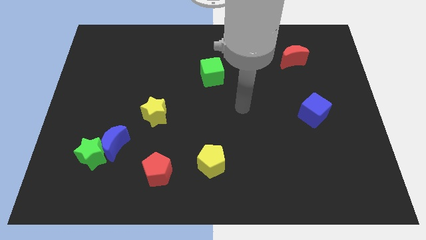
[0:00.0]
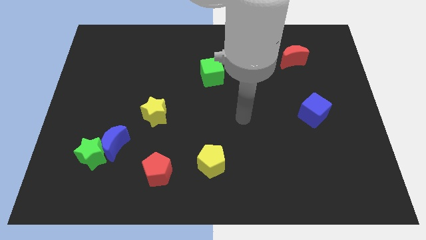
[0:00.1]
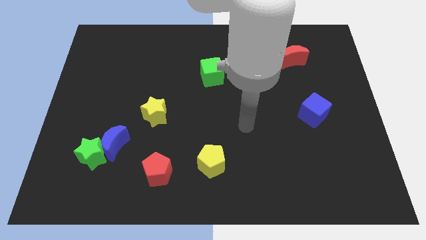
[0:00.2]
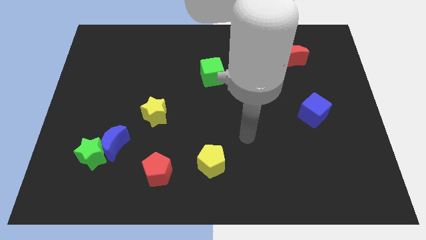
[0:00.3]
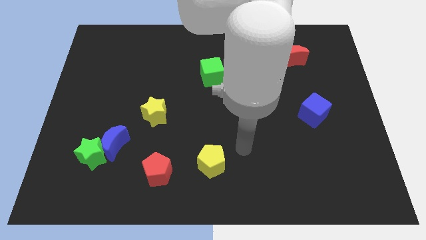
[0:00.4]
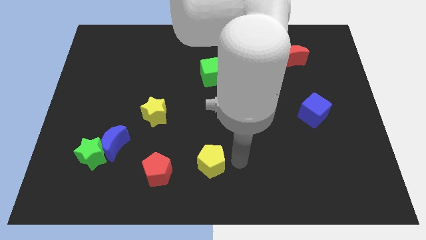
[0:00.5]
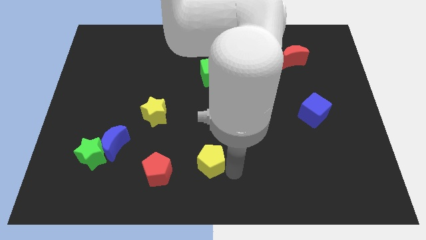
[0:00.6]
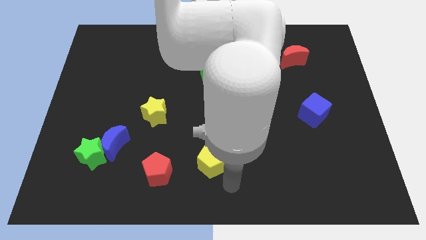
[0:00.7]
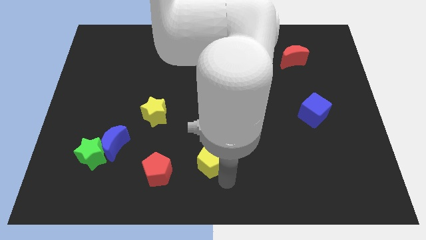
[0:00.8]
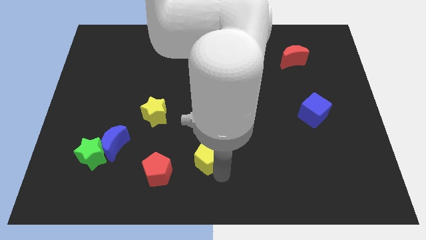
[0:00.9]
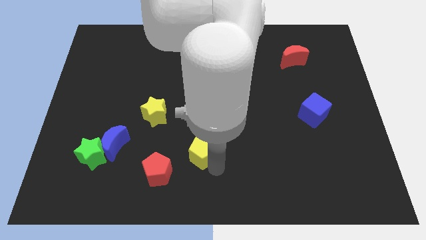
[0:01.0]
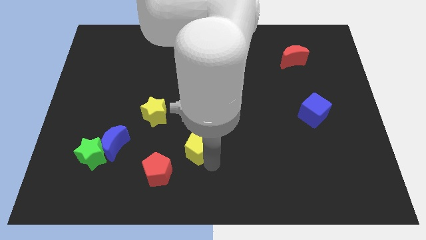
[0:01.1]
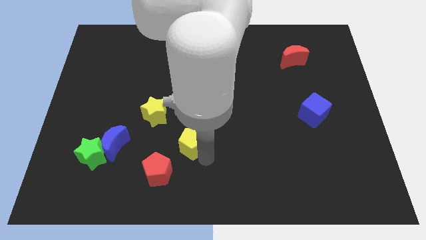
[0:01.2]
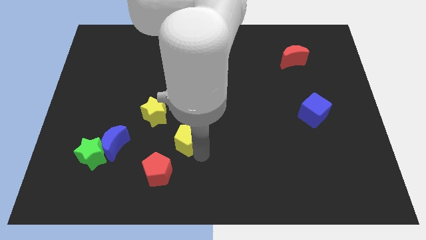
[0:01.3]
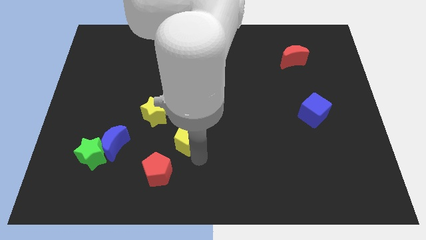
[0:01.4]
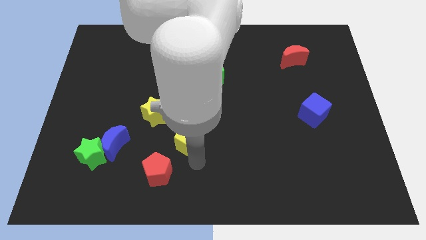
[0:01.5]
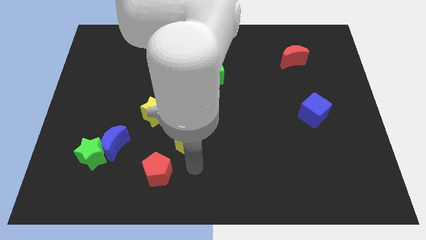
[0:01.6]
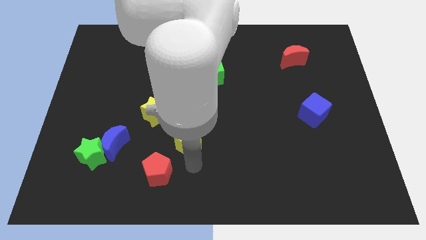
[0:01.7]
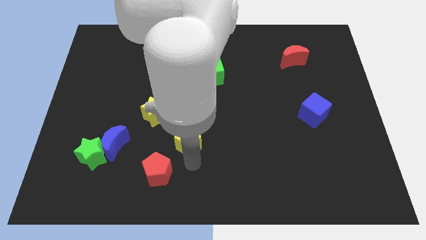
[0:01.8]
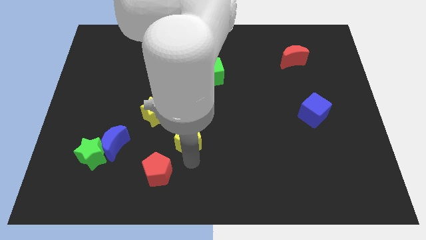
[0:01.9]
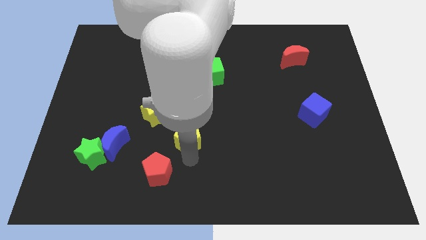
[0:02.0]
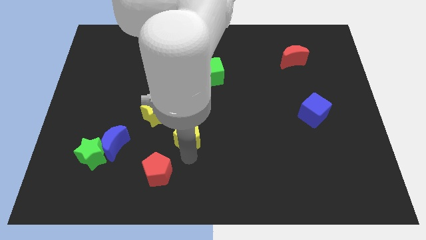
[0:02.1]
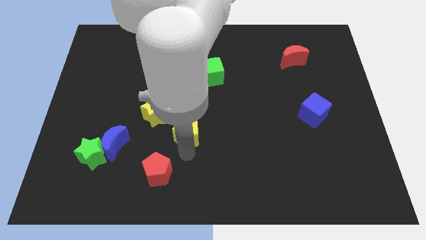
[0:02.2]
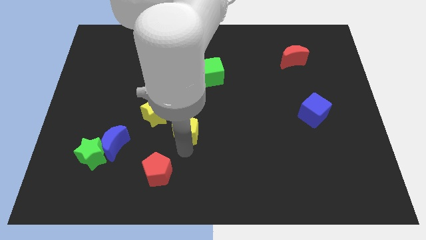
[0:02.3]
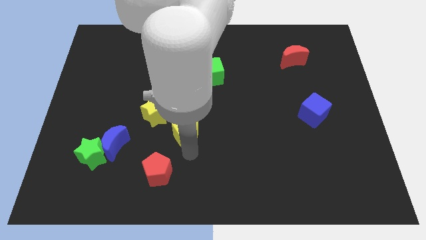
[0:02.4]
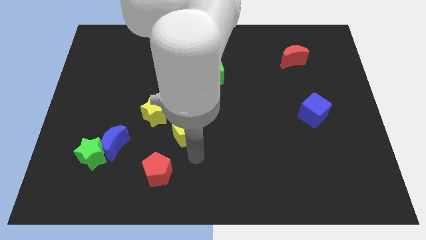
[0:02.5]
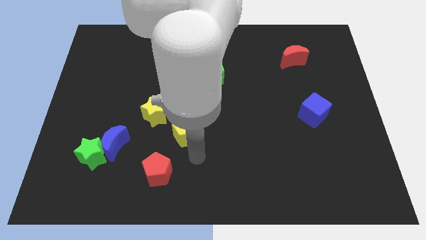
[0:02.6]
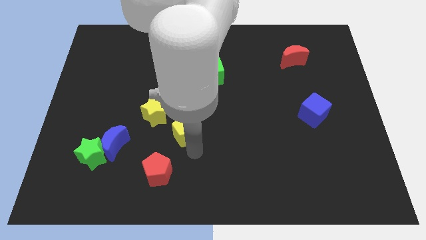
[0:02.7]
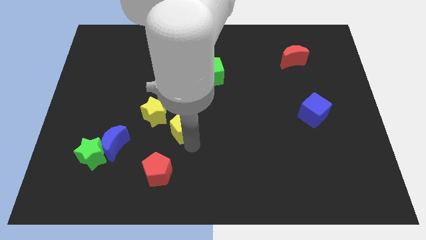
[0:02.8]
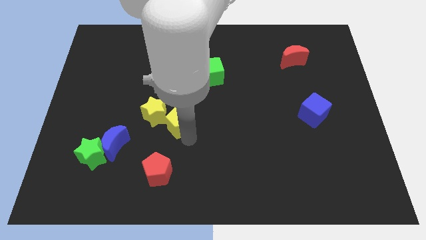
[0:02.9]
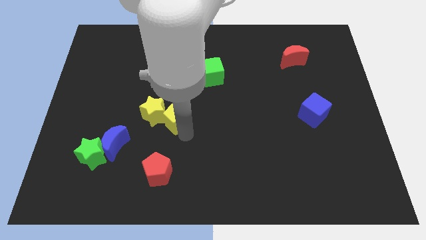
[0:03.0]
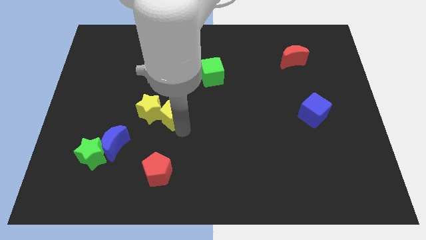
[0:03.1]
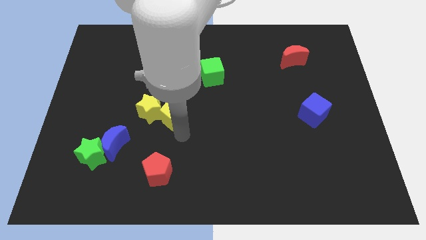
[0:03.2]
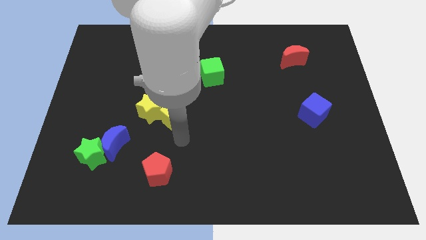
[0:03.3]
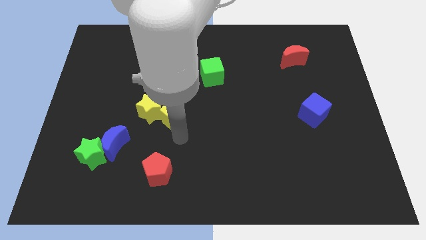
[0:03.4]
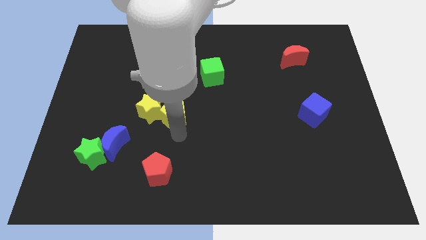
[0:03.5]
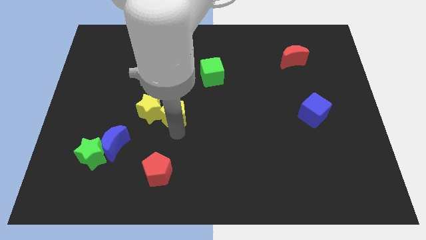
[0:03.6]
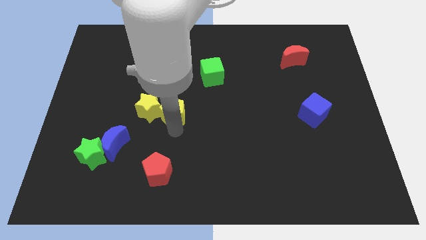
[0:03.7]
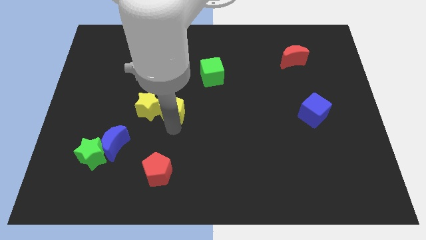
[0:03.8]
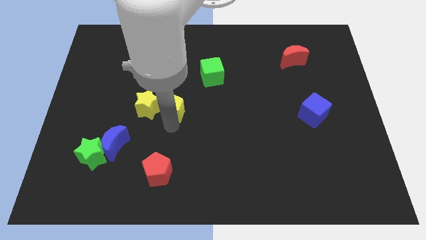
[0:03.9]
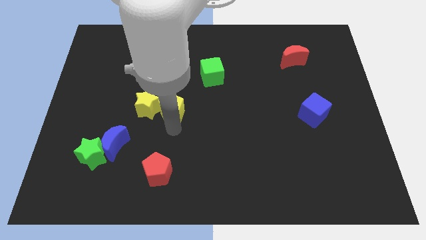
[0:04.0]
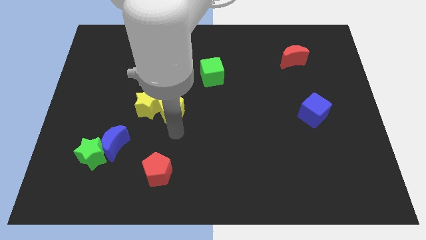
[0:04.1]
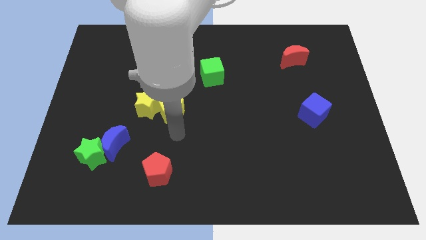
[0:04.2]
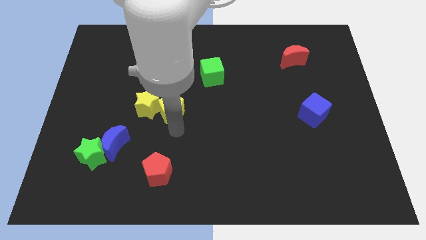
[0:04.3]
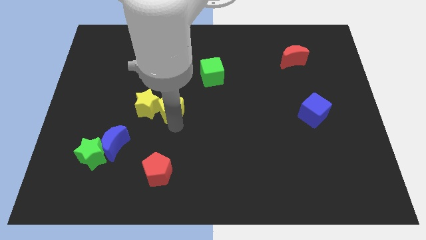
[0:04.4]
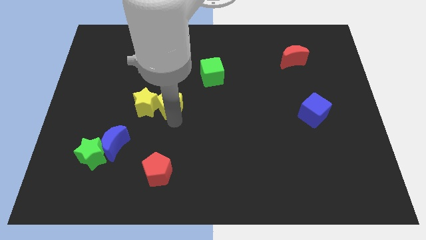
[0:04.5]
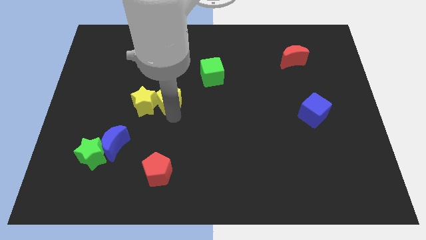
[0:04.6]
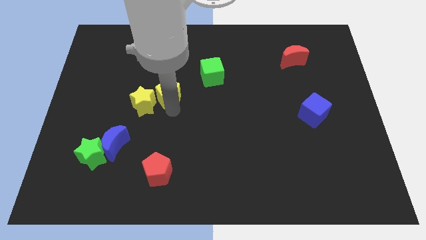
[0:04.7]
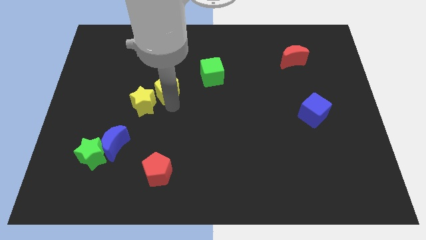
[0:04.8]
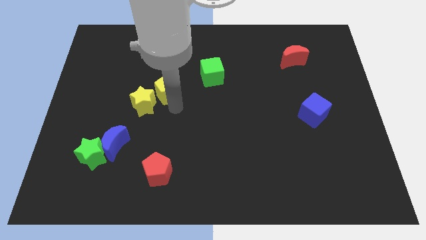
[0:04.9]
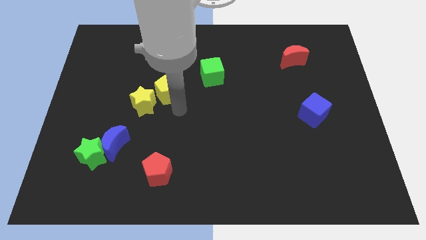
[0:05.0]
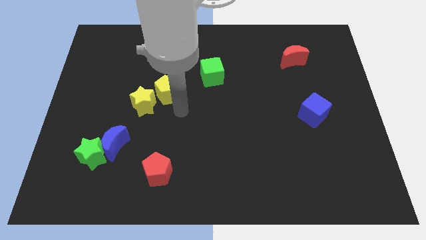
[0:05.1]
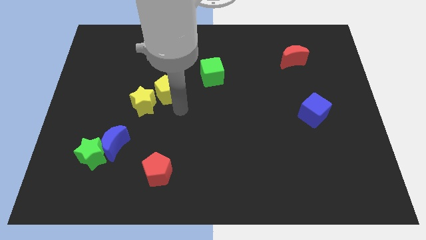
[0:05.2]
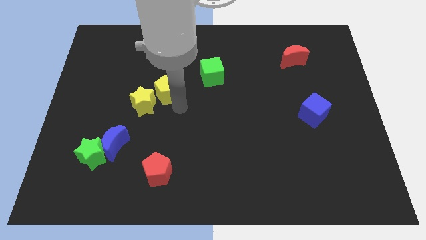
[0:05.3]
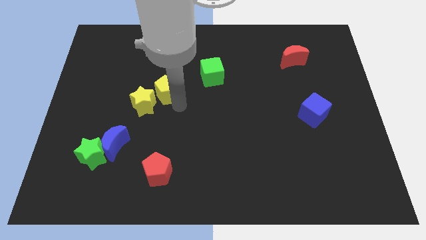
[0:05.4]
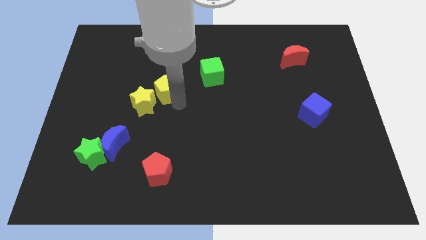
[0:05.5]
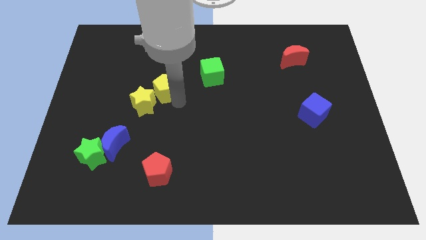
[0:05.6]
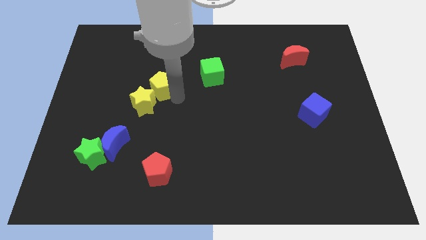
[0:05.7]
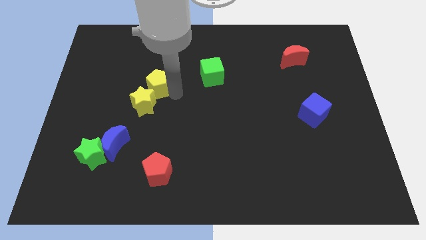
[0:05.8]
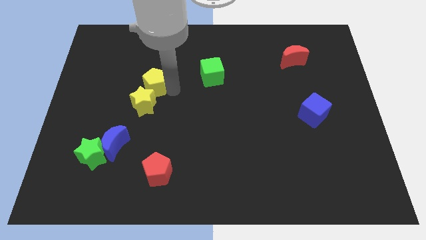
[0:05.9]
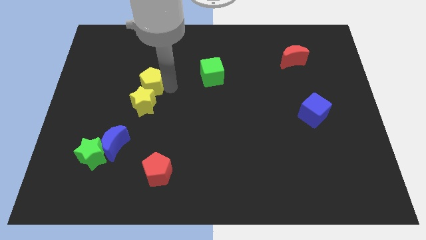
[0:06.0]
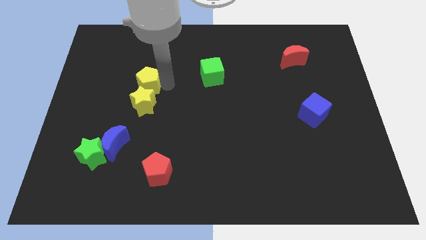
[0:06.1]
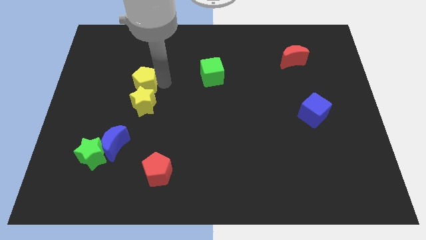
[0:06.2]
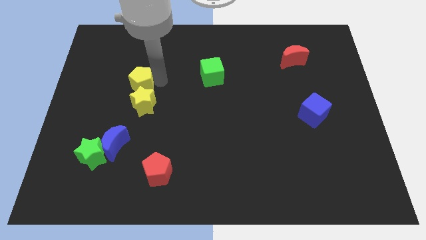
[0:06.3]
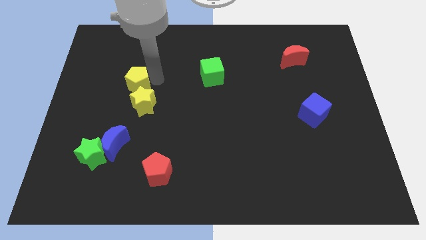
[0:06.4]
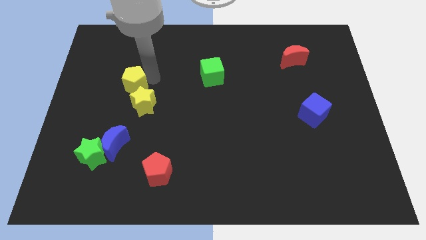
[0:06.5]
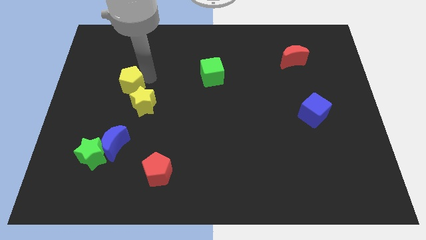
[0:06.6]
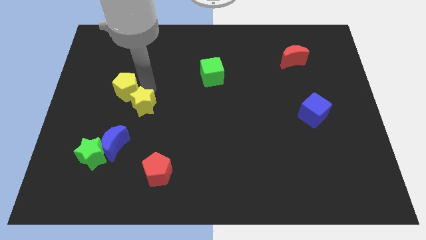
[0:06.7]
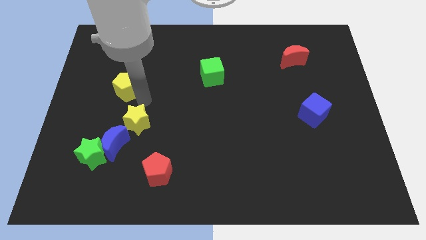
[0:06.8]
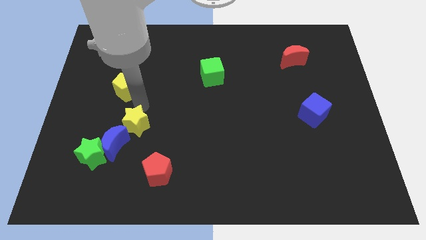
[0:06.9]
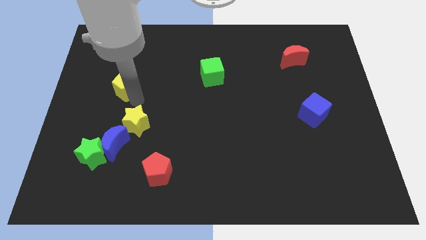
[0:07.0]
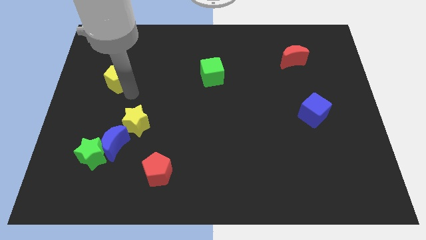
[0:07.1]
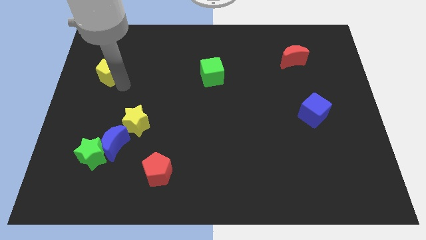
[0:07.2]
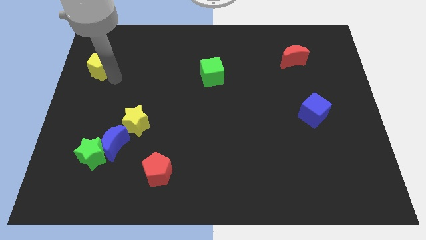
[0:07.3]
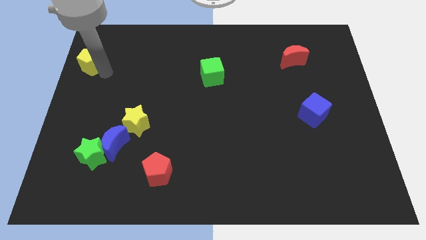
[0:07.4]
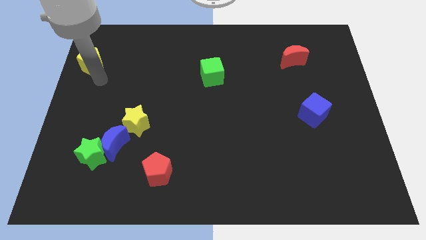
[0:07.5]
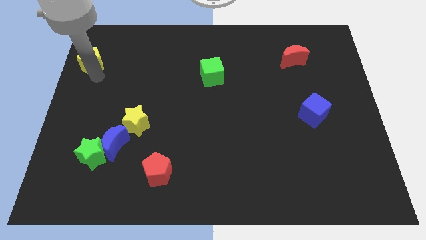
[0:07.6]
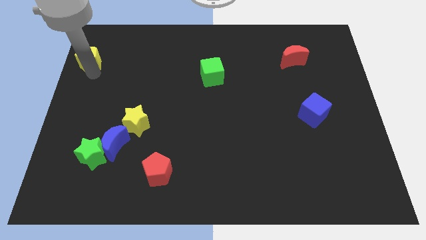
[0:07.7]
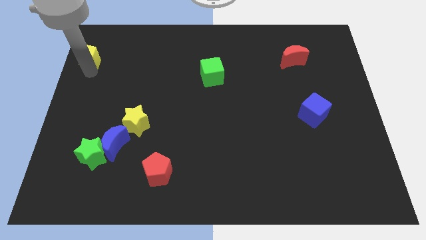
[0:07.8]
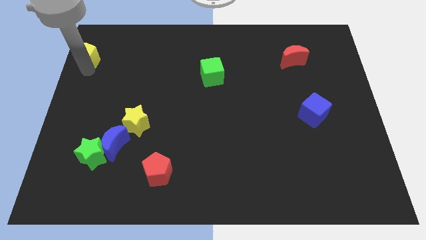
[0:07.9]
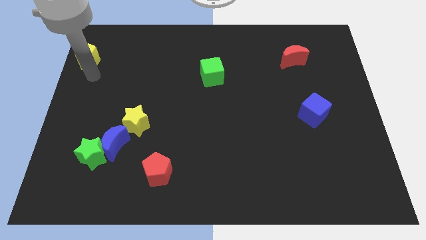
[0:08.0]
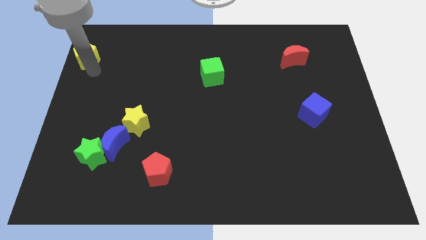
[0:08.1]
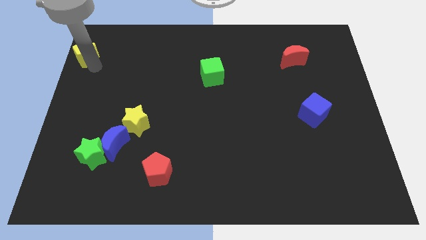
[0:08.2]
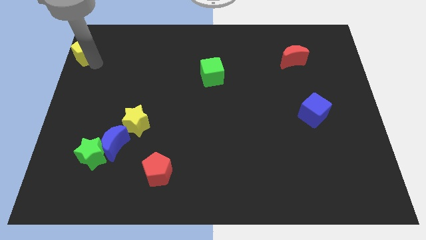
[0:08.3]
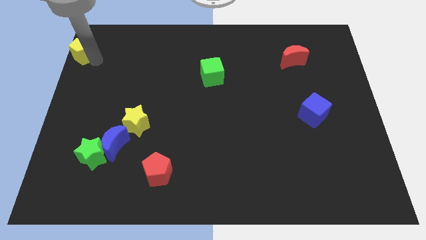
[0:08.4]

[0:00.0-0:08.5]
slide the yellow pentagon to the upper left corner
